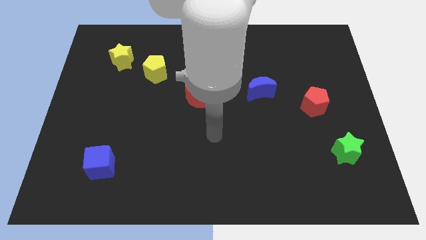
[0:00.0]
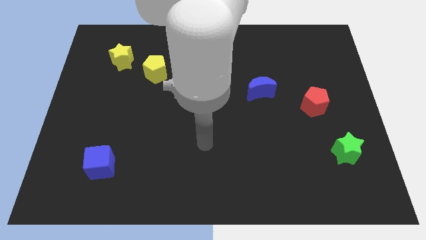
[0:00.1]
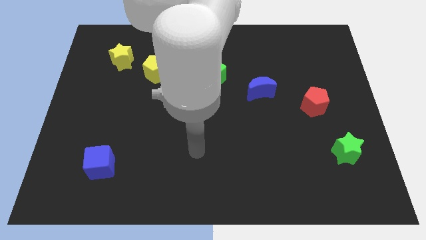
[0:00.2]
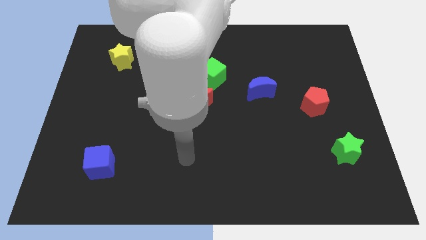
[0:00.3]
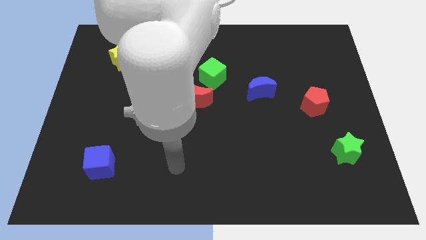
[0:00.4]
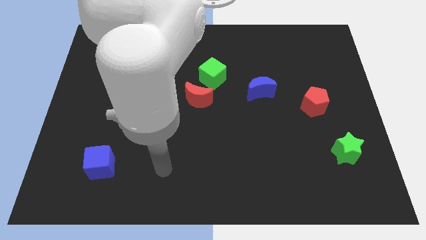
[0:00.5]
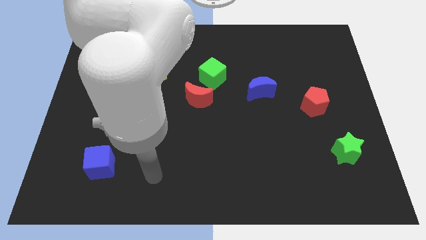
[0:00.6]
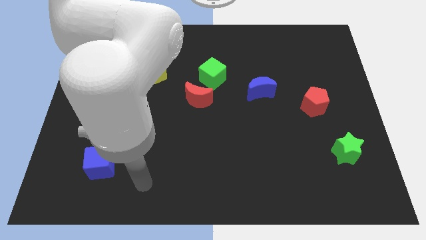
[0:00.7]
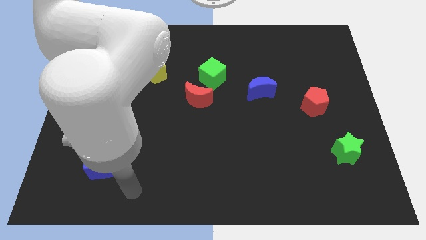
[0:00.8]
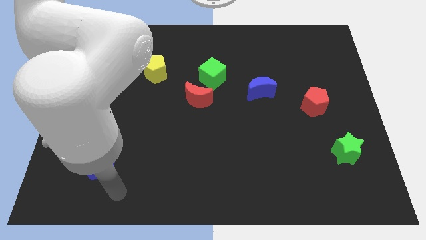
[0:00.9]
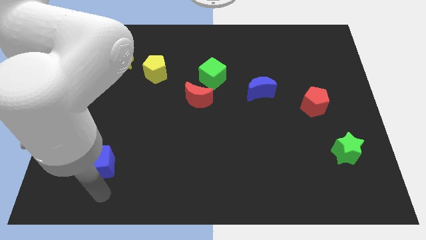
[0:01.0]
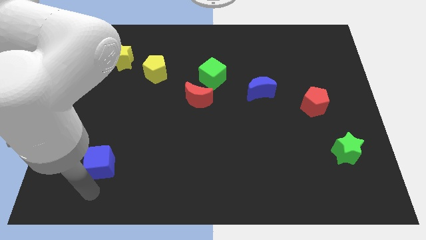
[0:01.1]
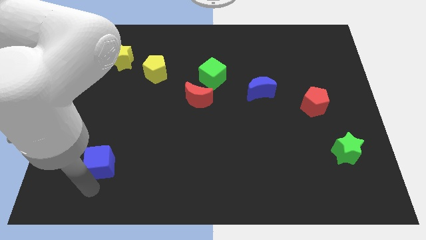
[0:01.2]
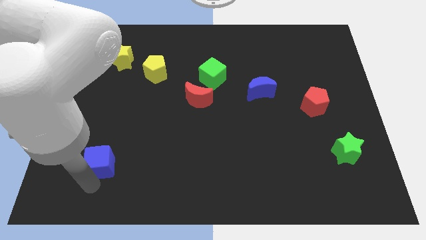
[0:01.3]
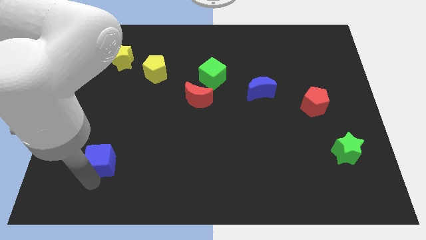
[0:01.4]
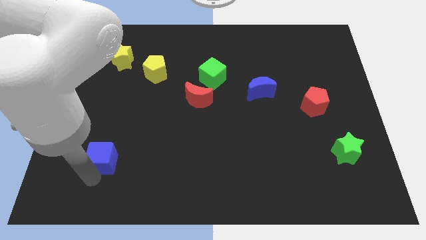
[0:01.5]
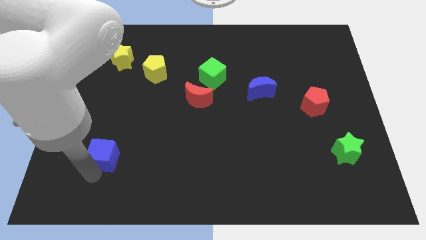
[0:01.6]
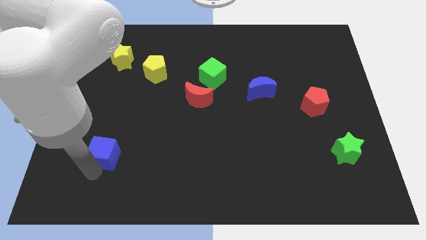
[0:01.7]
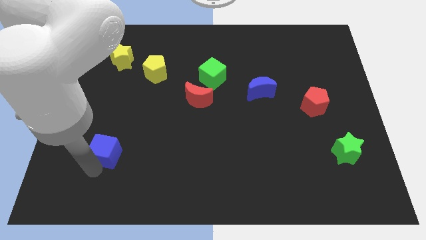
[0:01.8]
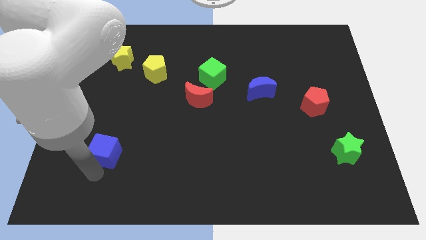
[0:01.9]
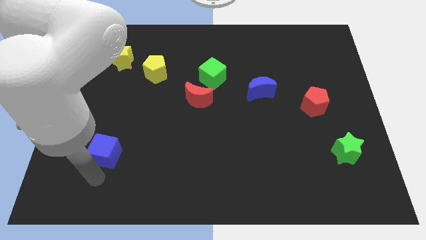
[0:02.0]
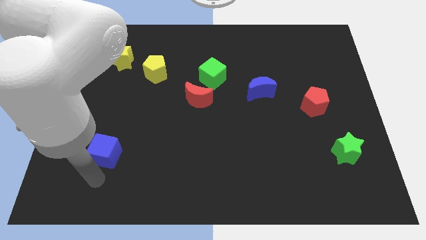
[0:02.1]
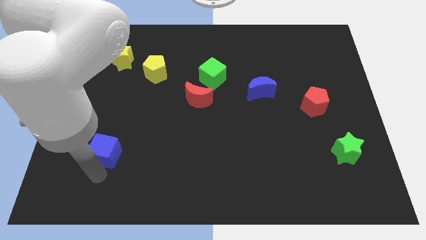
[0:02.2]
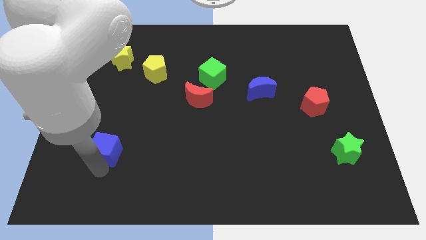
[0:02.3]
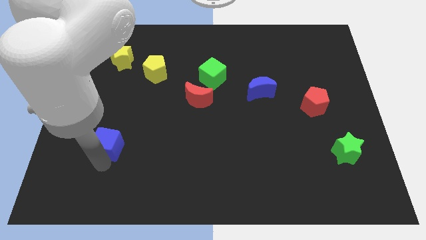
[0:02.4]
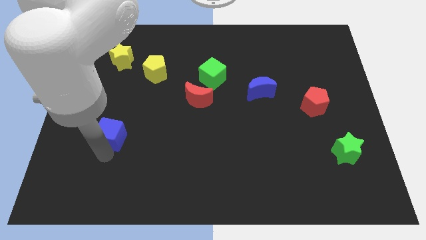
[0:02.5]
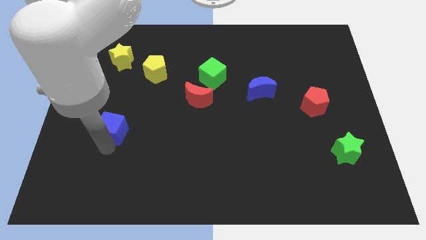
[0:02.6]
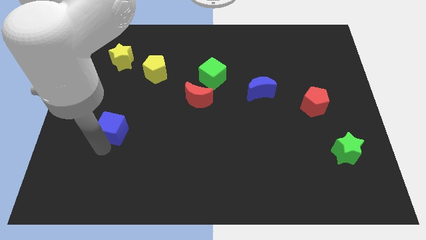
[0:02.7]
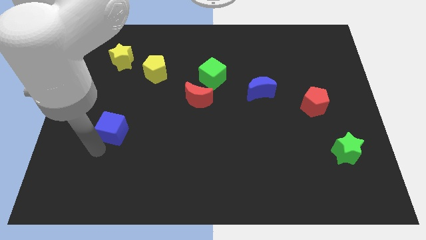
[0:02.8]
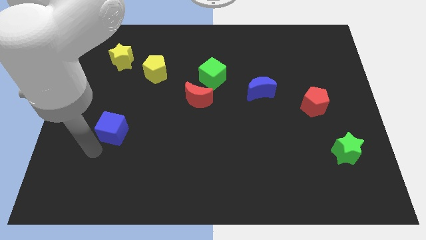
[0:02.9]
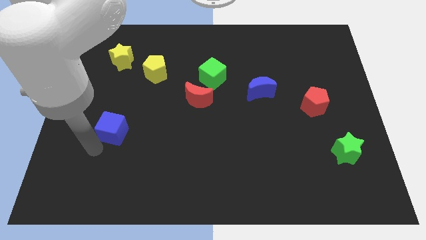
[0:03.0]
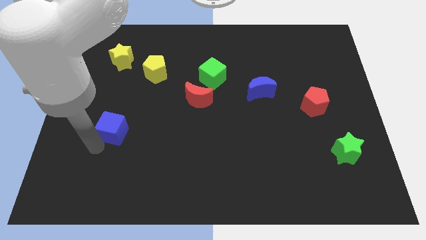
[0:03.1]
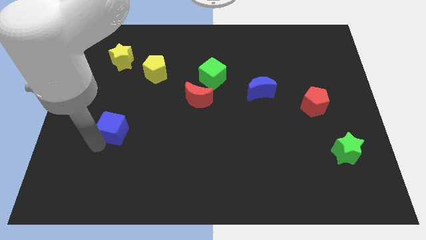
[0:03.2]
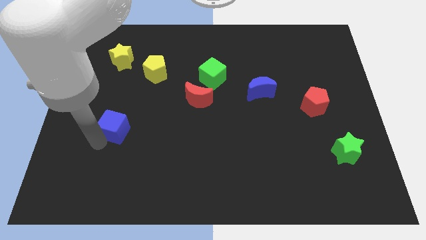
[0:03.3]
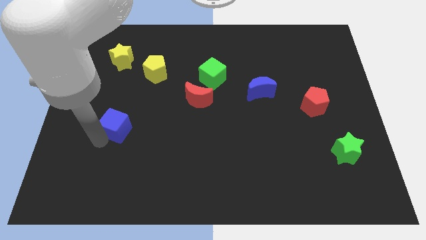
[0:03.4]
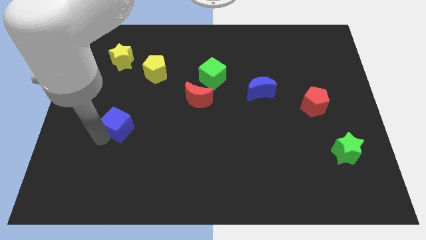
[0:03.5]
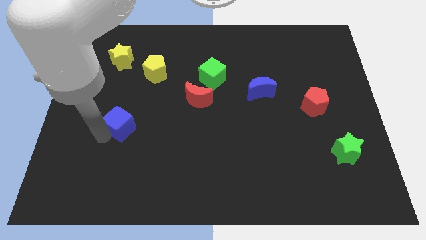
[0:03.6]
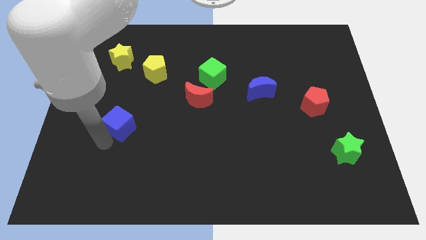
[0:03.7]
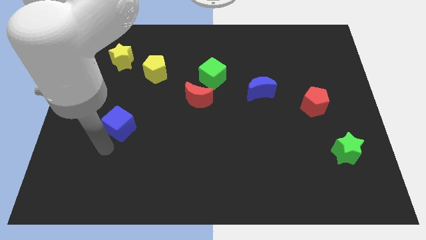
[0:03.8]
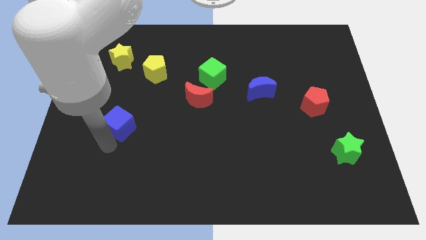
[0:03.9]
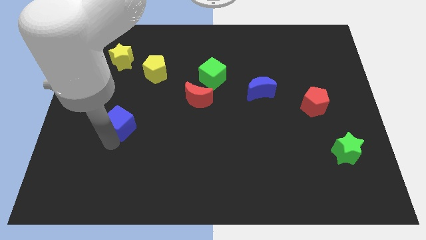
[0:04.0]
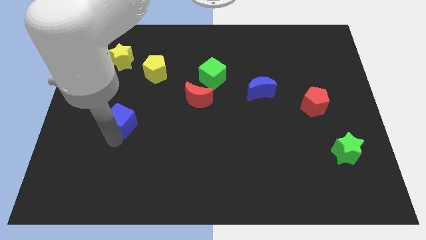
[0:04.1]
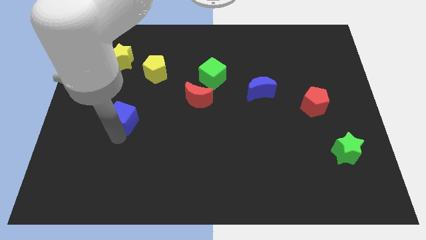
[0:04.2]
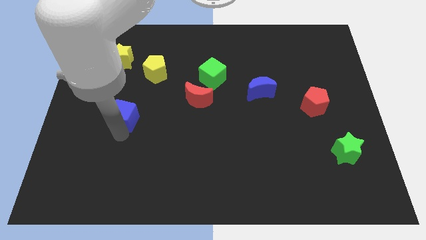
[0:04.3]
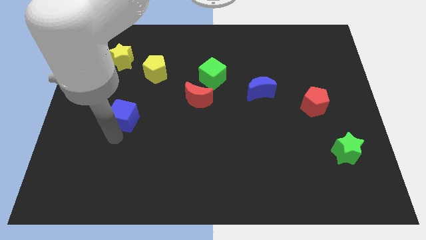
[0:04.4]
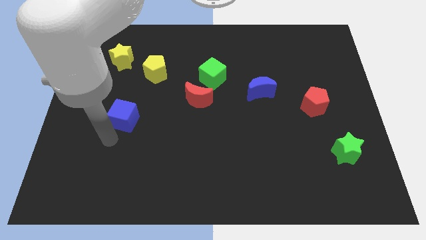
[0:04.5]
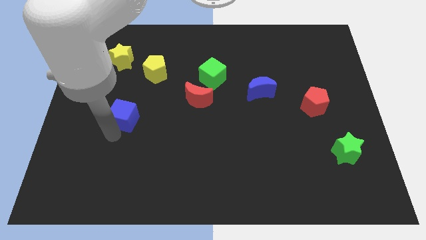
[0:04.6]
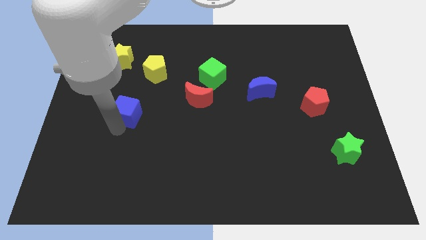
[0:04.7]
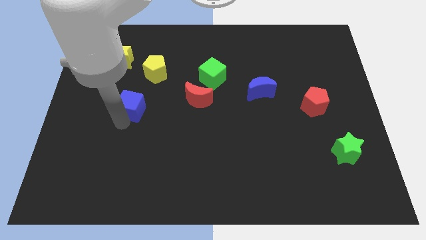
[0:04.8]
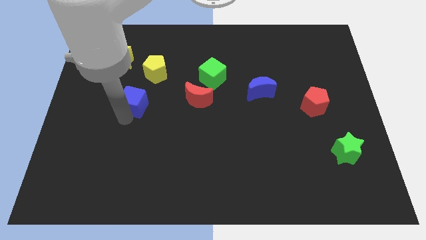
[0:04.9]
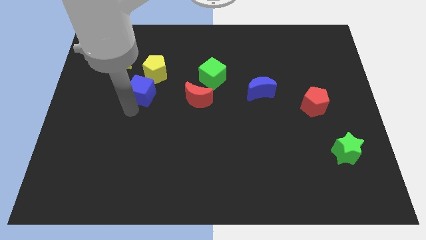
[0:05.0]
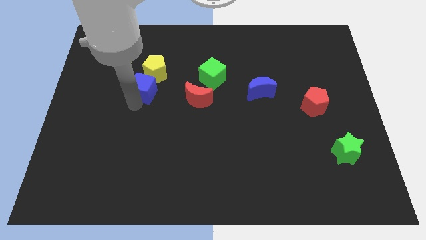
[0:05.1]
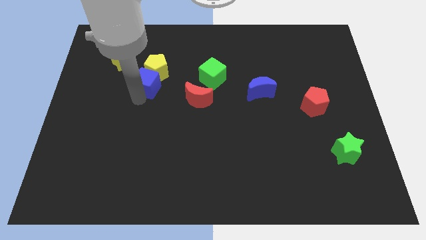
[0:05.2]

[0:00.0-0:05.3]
put the blue cube next to the yellow pentagon

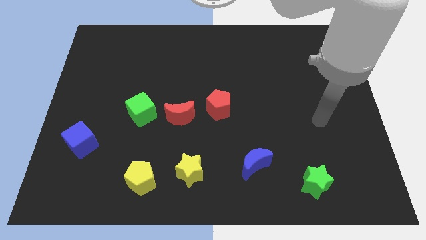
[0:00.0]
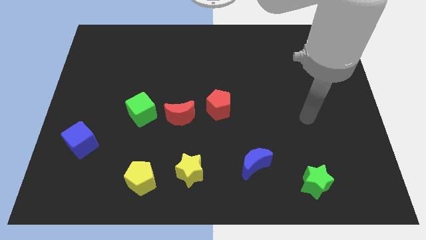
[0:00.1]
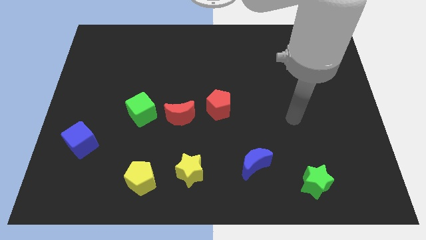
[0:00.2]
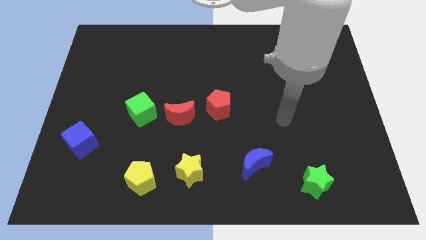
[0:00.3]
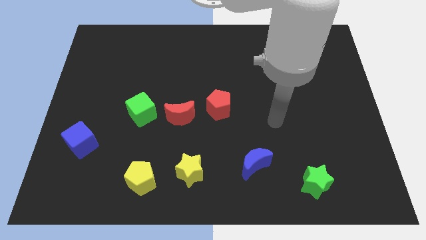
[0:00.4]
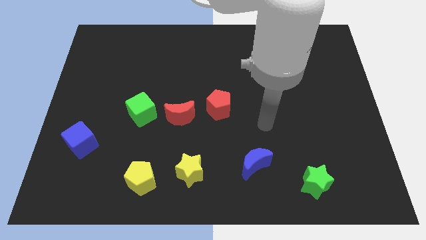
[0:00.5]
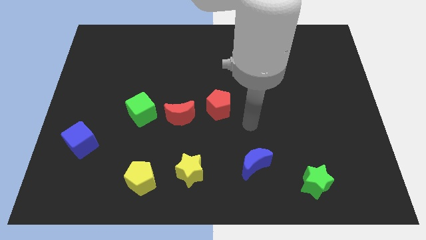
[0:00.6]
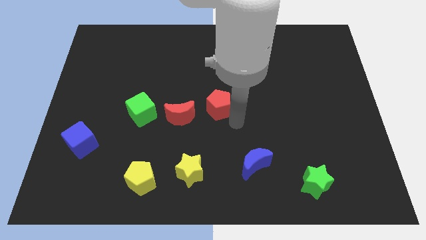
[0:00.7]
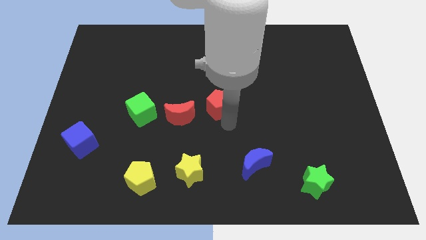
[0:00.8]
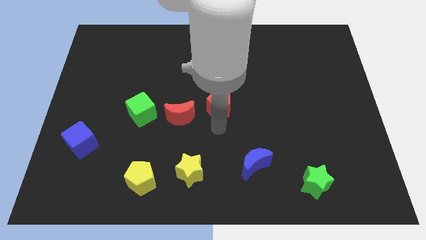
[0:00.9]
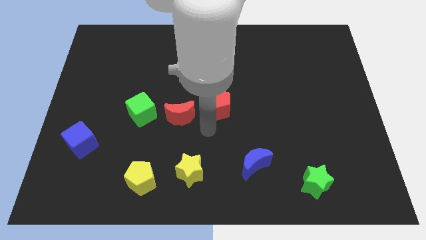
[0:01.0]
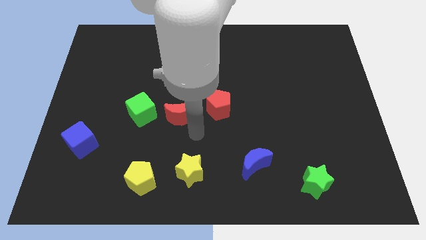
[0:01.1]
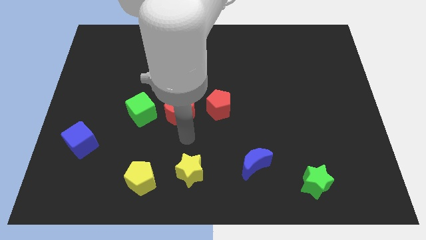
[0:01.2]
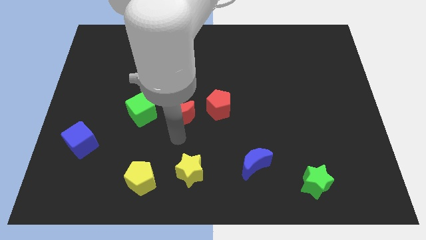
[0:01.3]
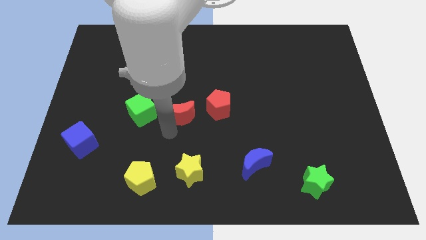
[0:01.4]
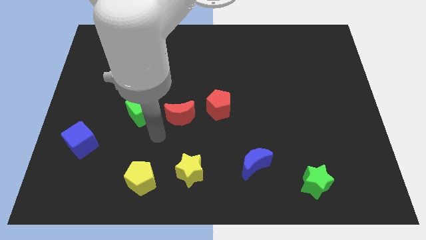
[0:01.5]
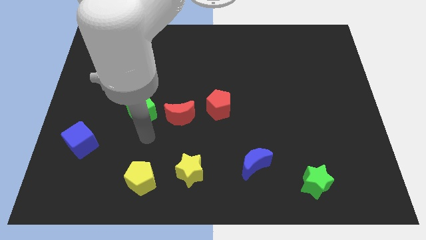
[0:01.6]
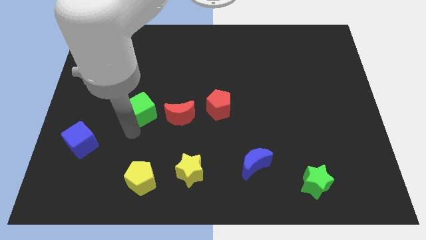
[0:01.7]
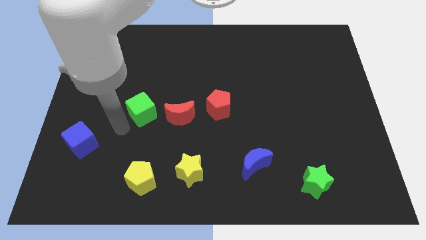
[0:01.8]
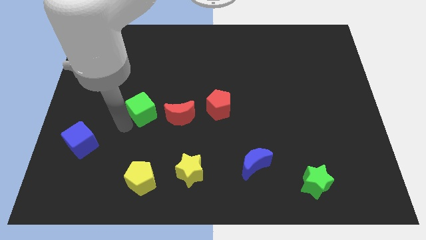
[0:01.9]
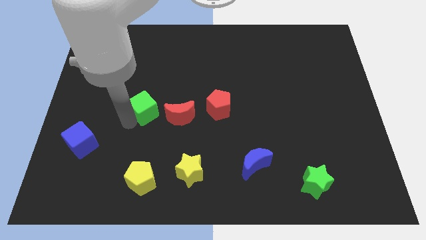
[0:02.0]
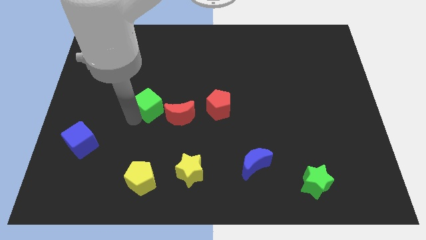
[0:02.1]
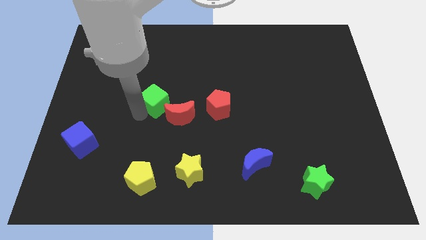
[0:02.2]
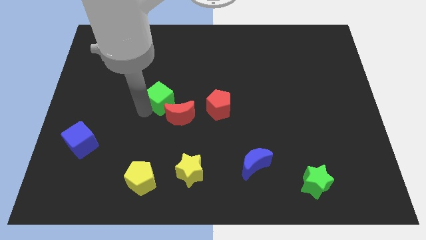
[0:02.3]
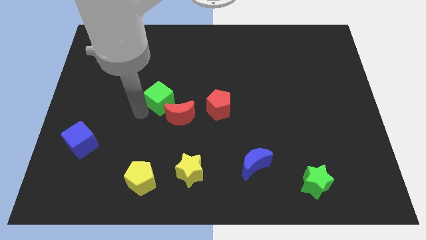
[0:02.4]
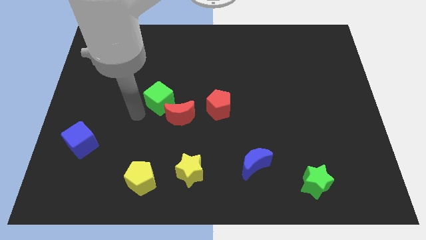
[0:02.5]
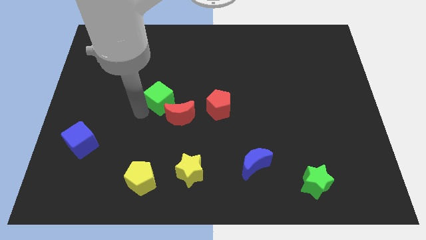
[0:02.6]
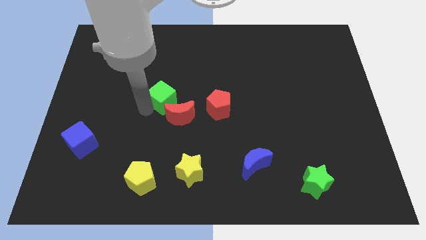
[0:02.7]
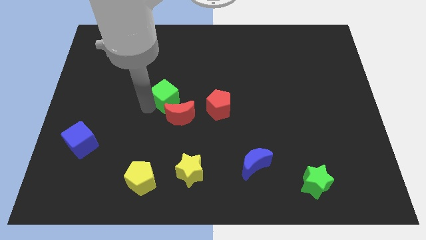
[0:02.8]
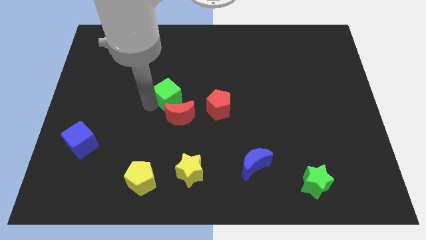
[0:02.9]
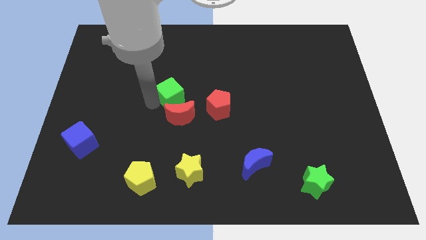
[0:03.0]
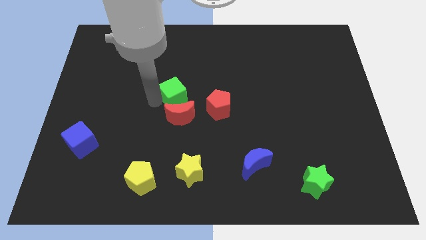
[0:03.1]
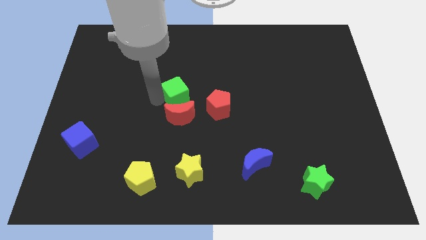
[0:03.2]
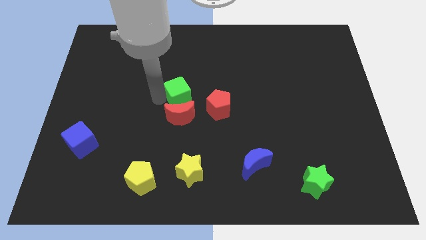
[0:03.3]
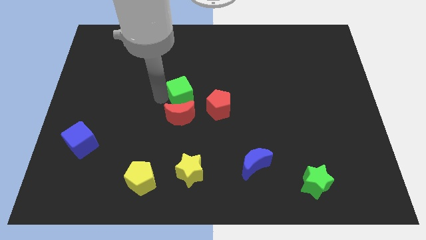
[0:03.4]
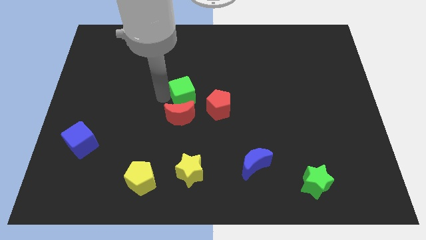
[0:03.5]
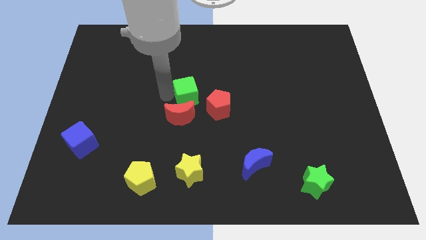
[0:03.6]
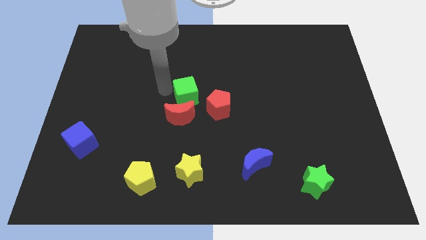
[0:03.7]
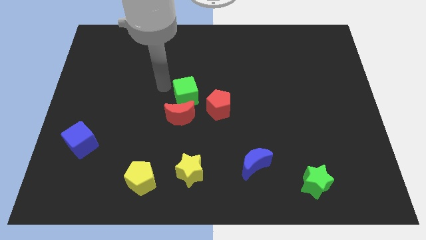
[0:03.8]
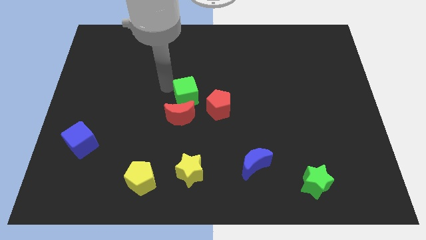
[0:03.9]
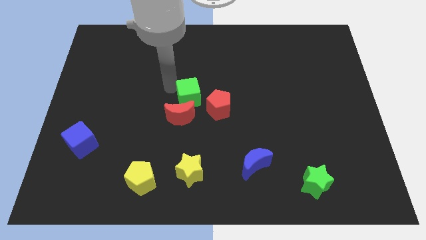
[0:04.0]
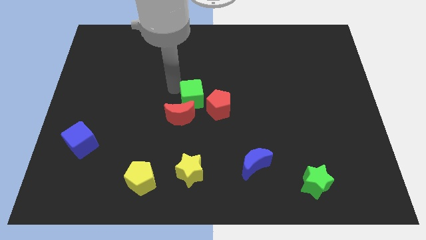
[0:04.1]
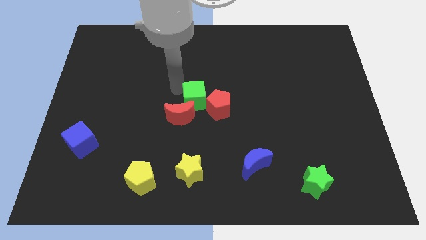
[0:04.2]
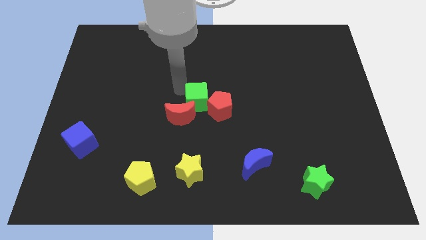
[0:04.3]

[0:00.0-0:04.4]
put the green cube next to the red pentagon
